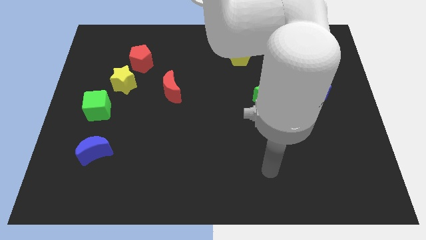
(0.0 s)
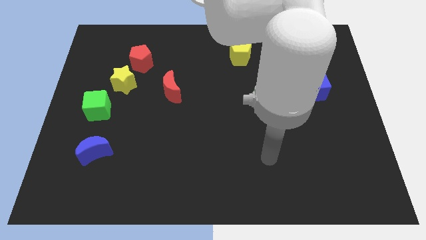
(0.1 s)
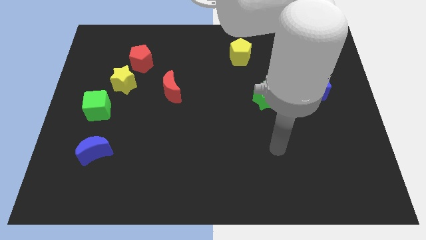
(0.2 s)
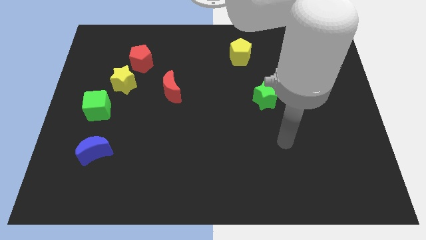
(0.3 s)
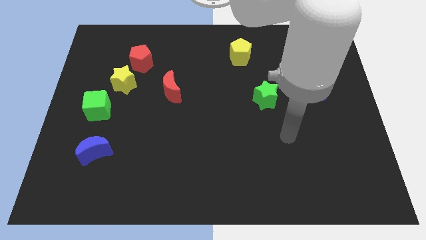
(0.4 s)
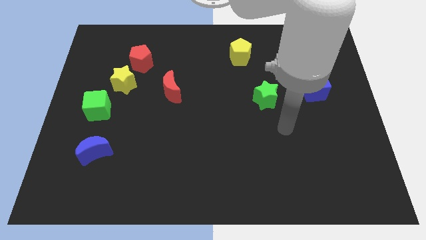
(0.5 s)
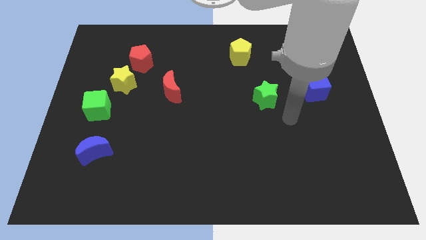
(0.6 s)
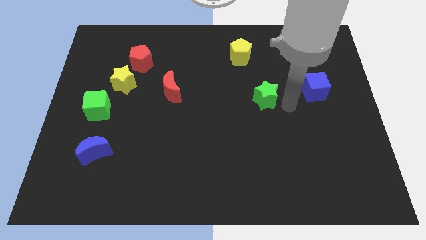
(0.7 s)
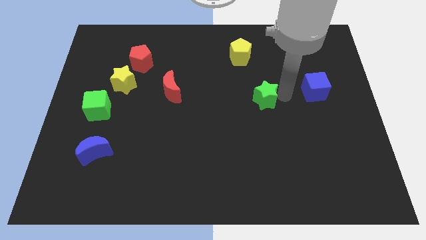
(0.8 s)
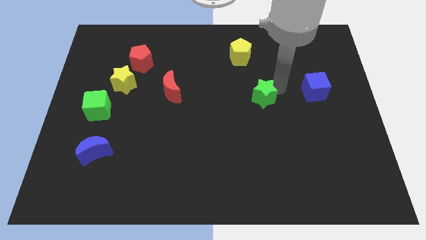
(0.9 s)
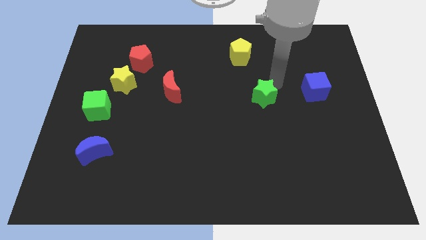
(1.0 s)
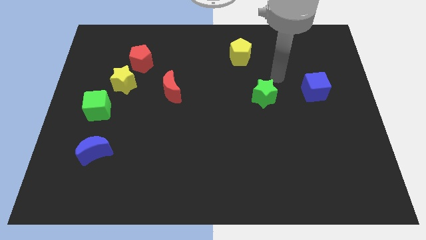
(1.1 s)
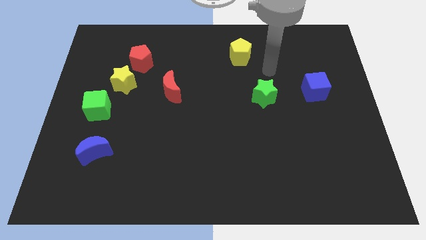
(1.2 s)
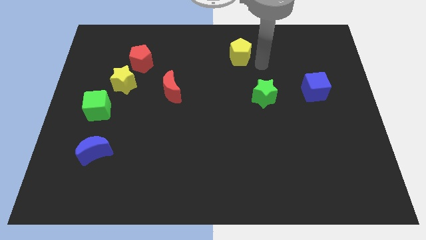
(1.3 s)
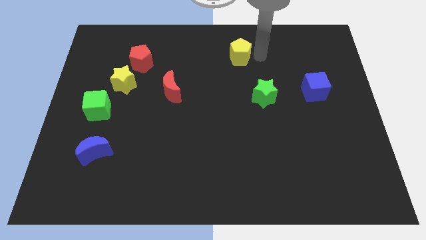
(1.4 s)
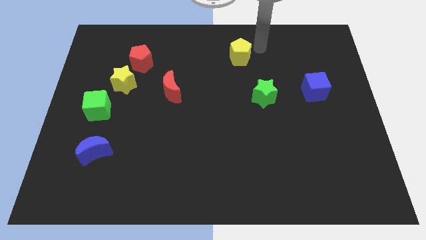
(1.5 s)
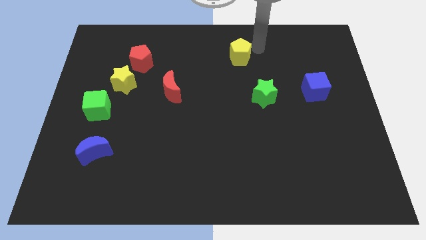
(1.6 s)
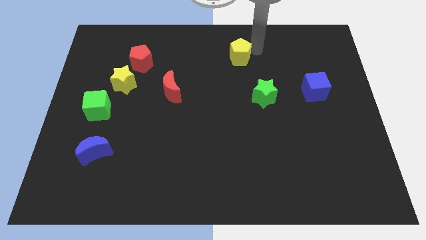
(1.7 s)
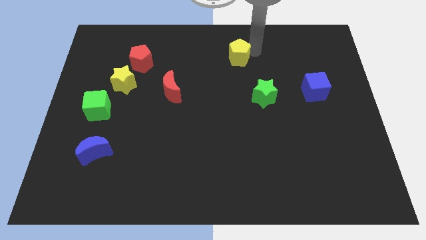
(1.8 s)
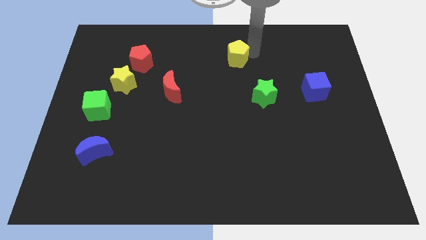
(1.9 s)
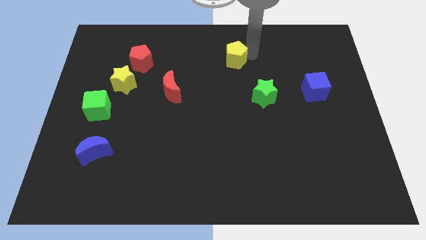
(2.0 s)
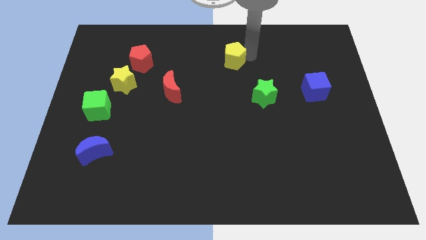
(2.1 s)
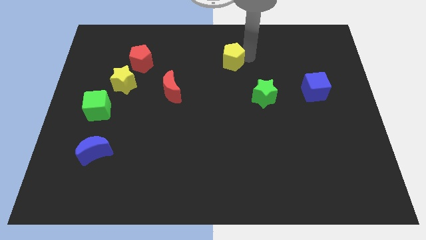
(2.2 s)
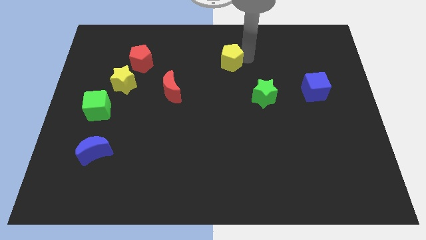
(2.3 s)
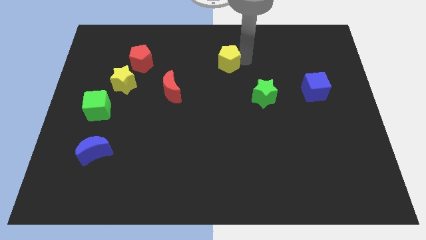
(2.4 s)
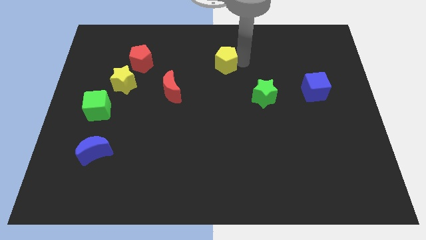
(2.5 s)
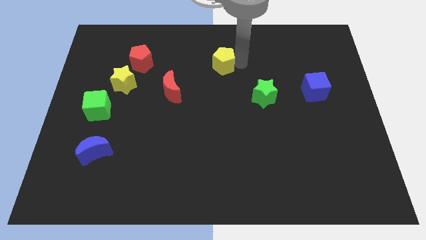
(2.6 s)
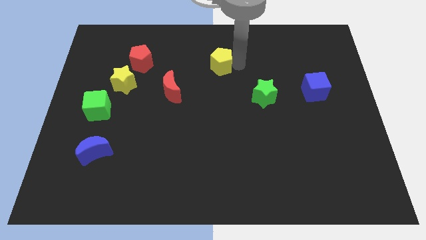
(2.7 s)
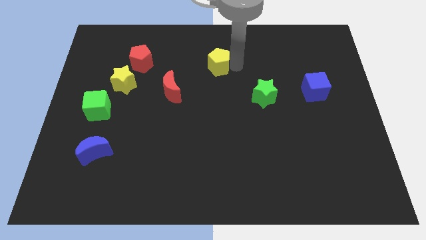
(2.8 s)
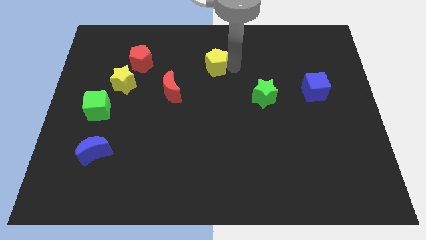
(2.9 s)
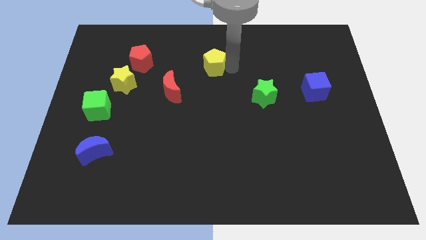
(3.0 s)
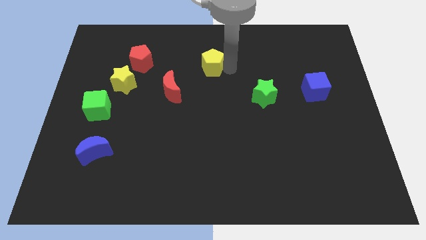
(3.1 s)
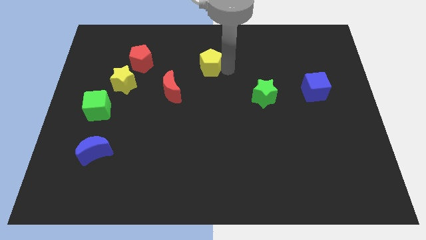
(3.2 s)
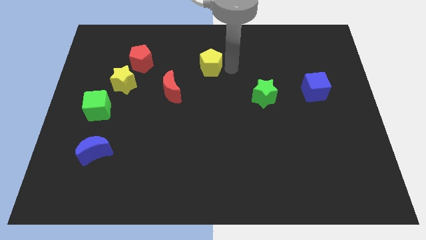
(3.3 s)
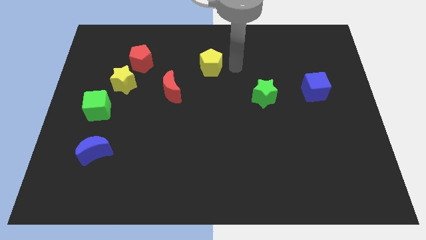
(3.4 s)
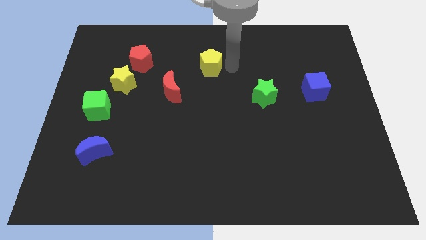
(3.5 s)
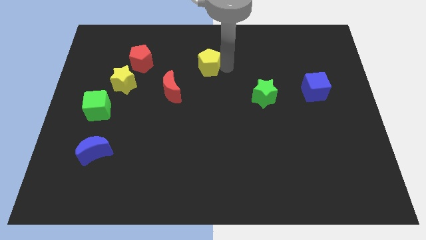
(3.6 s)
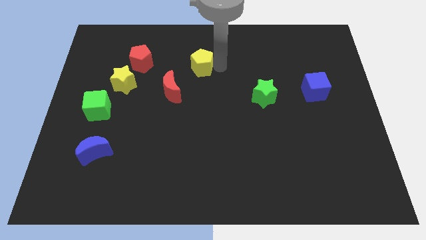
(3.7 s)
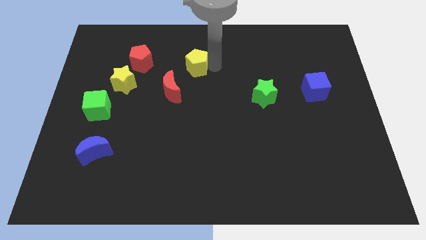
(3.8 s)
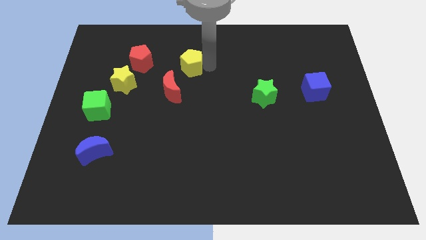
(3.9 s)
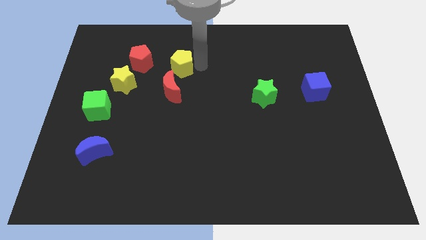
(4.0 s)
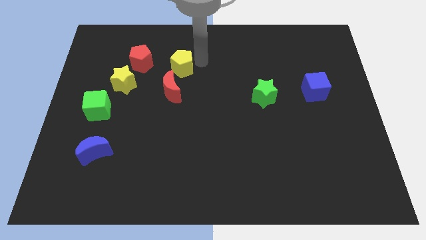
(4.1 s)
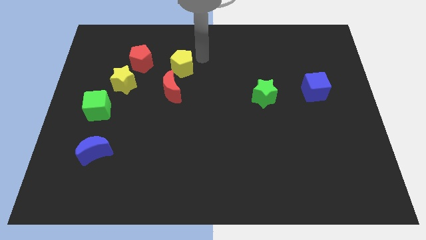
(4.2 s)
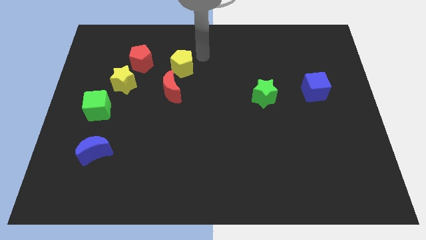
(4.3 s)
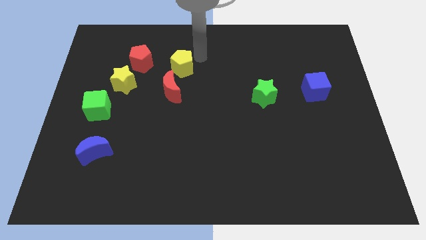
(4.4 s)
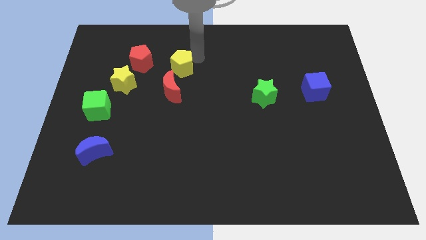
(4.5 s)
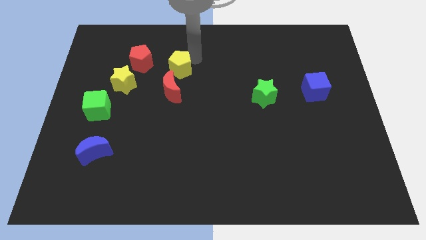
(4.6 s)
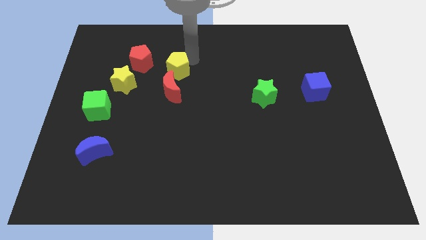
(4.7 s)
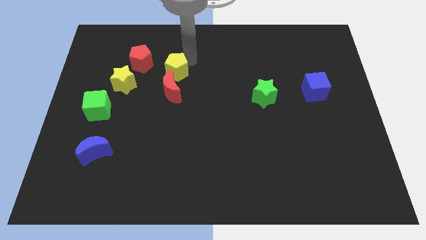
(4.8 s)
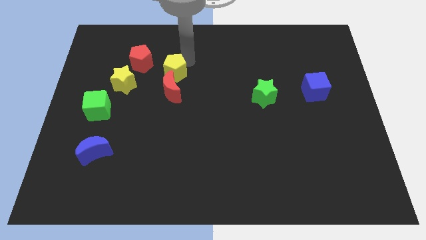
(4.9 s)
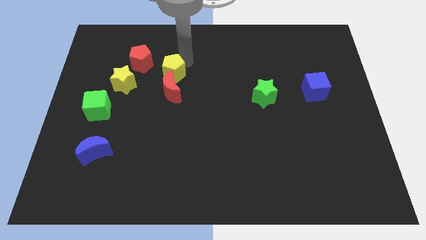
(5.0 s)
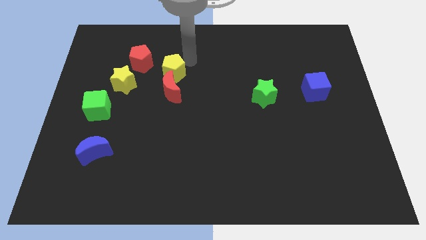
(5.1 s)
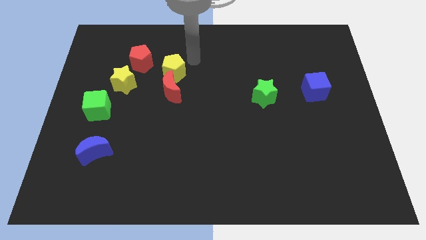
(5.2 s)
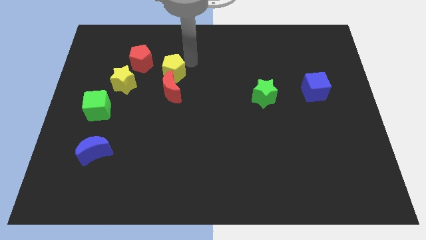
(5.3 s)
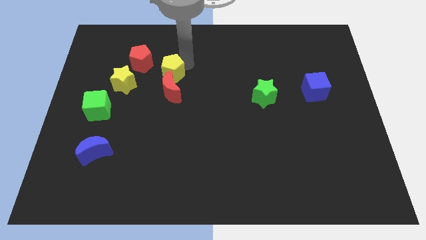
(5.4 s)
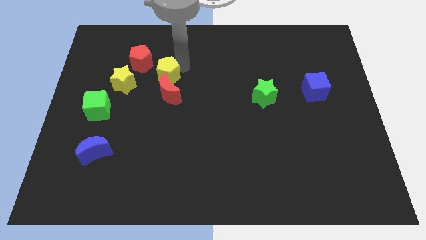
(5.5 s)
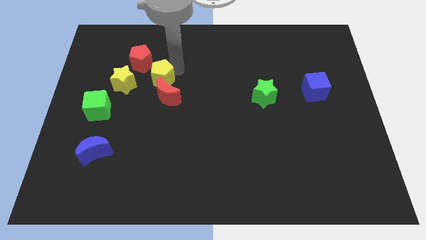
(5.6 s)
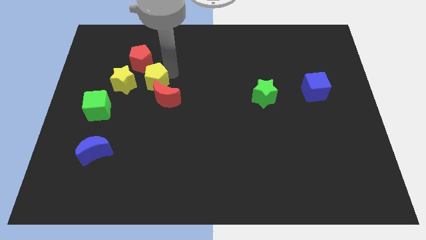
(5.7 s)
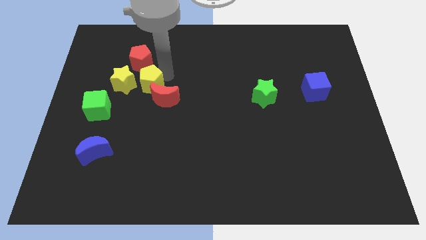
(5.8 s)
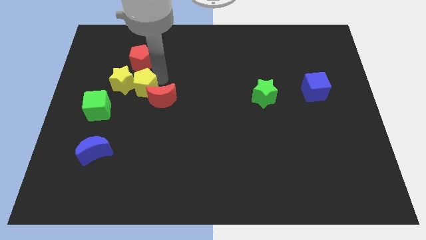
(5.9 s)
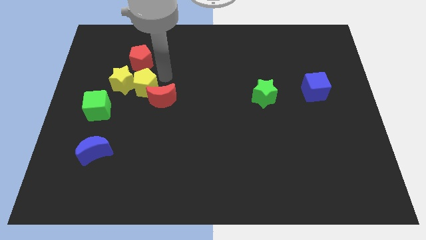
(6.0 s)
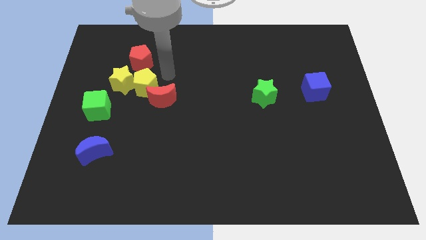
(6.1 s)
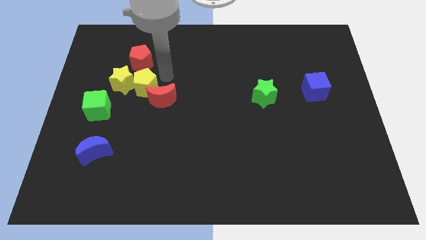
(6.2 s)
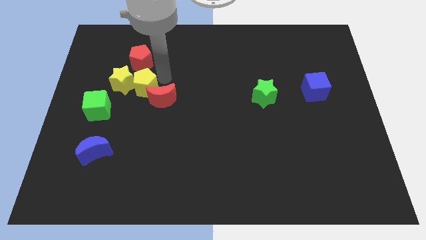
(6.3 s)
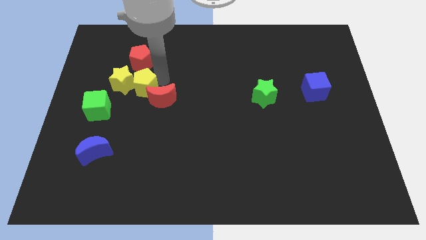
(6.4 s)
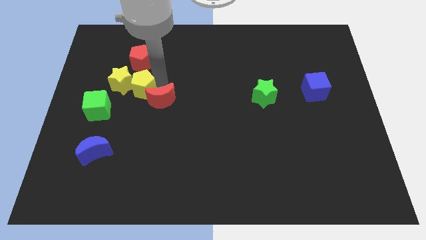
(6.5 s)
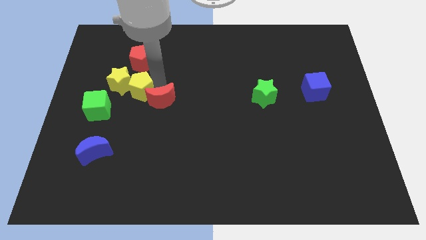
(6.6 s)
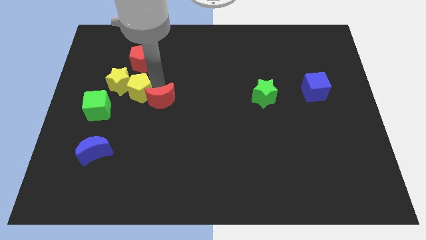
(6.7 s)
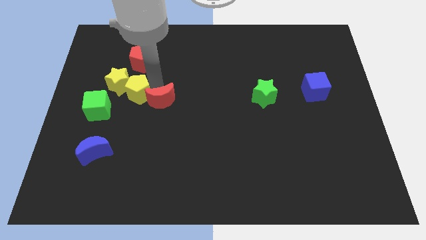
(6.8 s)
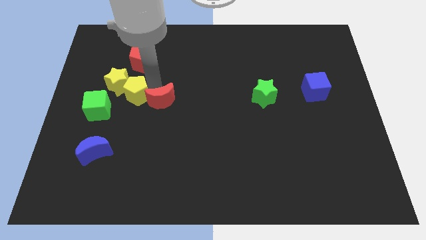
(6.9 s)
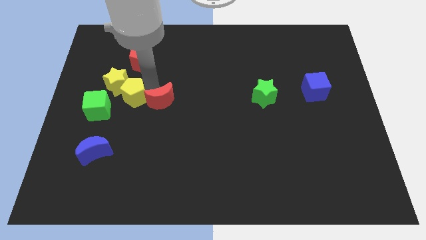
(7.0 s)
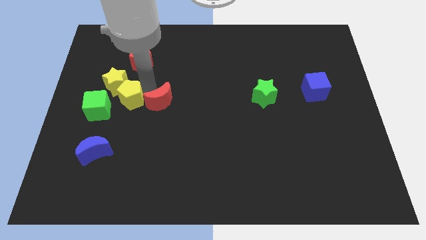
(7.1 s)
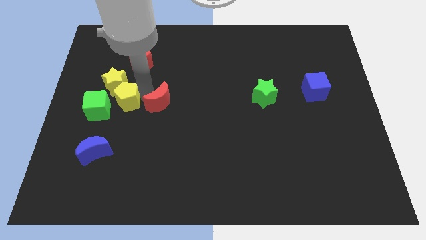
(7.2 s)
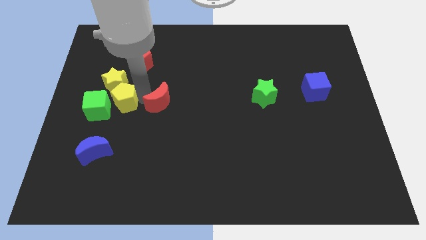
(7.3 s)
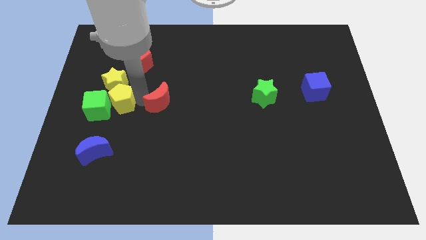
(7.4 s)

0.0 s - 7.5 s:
push the yellow pentagon close to the green cube

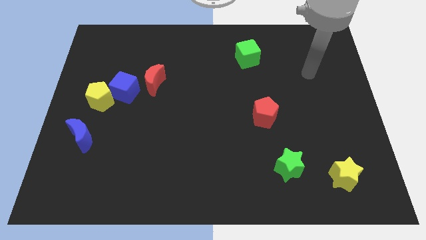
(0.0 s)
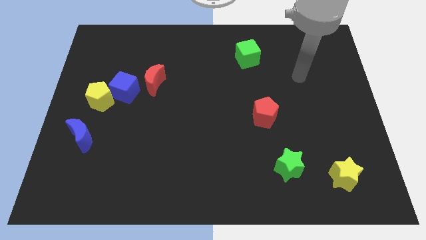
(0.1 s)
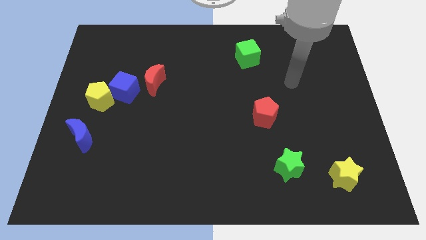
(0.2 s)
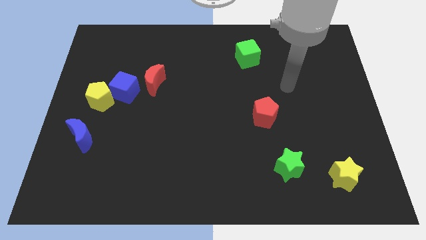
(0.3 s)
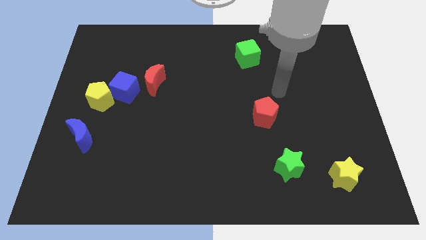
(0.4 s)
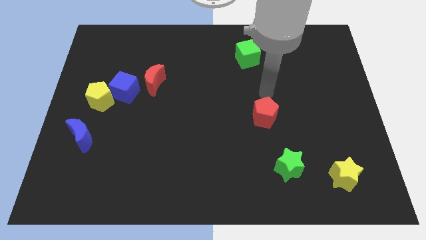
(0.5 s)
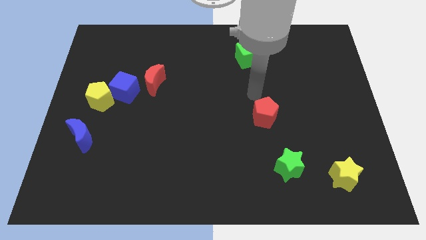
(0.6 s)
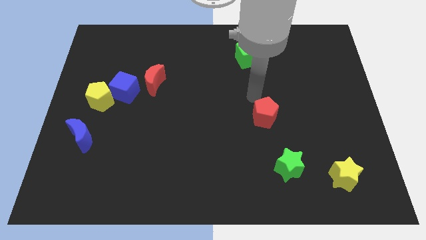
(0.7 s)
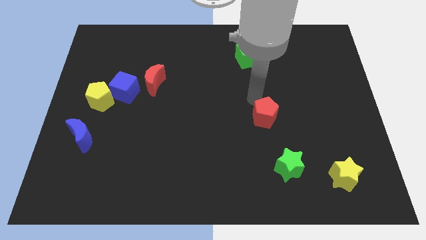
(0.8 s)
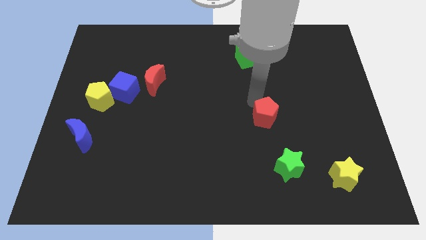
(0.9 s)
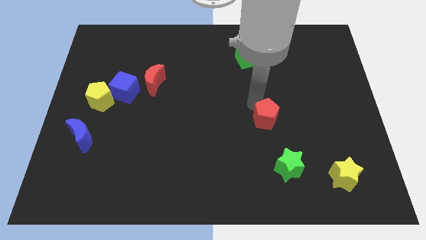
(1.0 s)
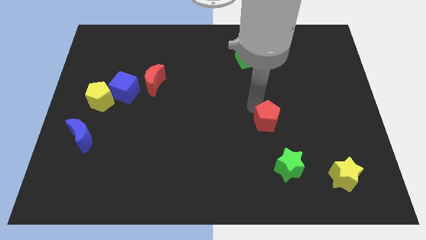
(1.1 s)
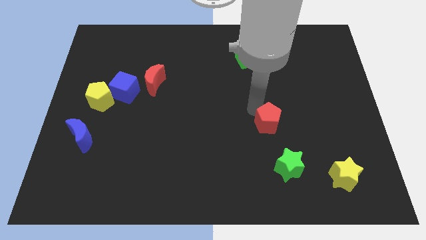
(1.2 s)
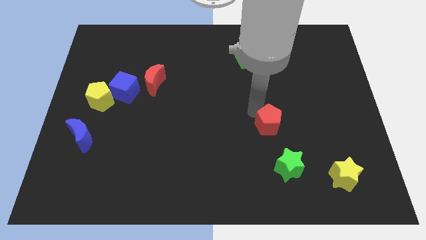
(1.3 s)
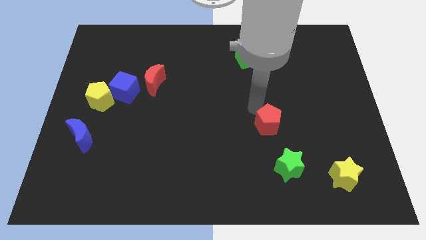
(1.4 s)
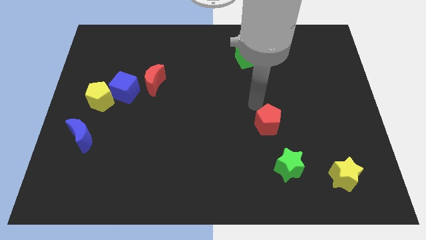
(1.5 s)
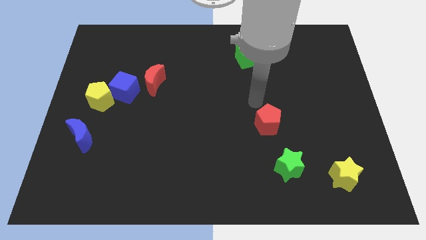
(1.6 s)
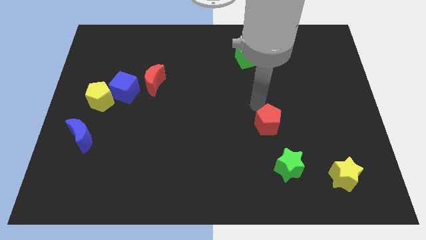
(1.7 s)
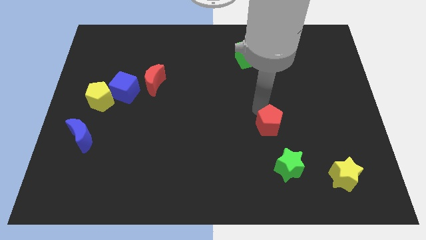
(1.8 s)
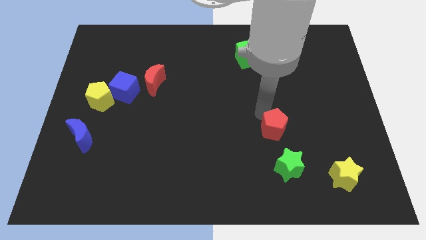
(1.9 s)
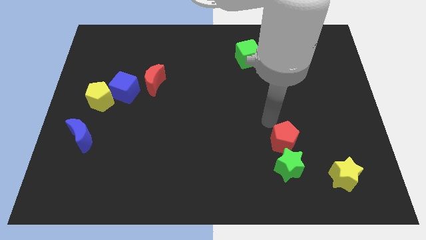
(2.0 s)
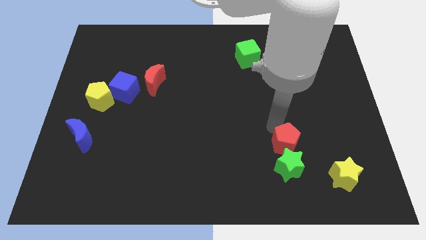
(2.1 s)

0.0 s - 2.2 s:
put the red pentagon to the green star
